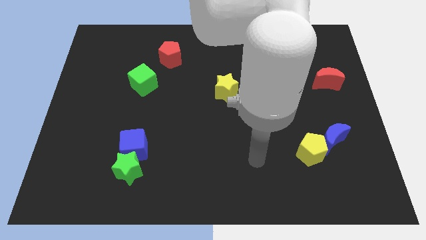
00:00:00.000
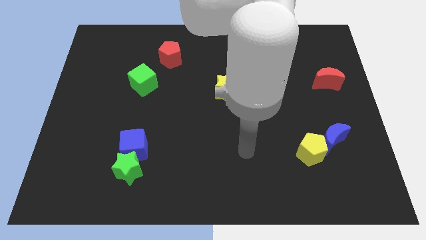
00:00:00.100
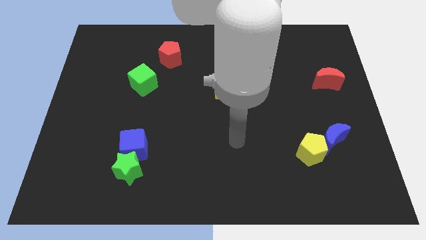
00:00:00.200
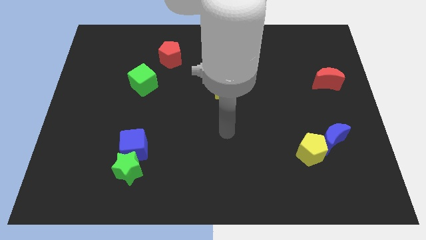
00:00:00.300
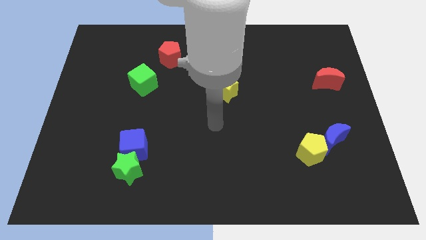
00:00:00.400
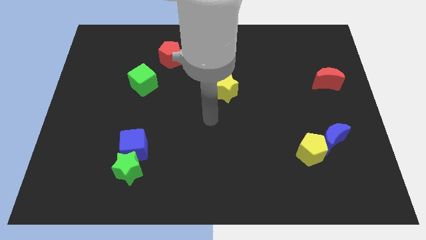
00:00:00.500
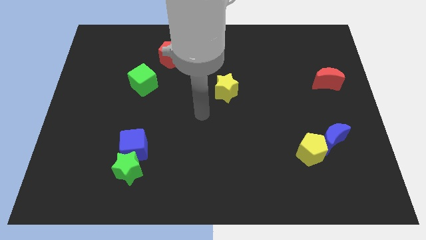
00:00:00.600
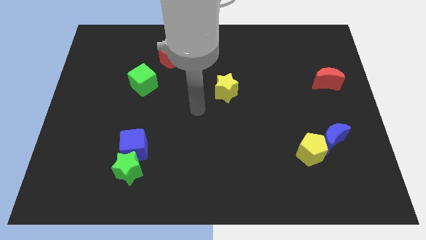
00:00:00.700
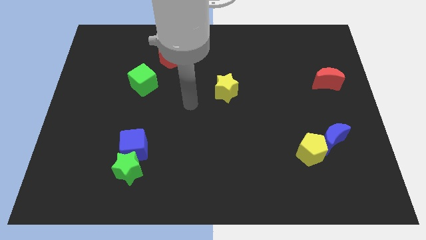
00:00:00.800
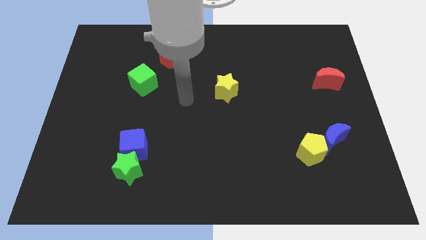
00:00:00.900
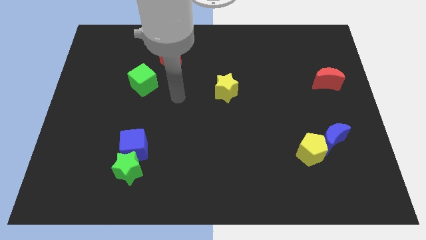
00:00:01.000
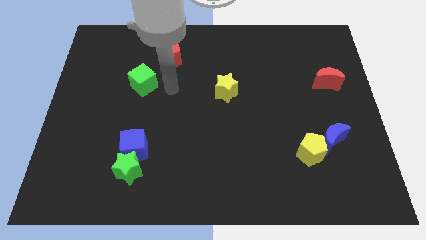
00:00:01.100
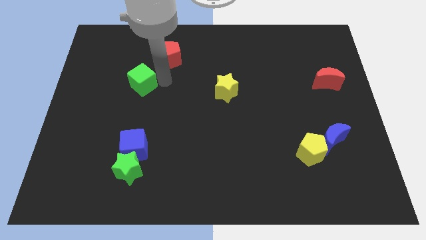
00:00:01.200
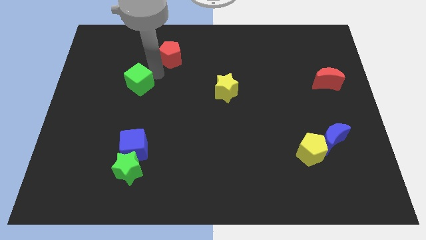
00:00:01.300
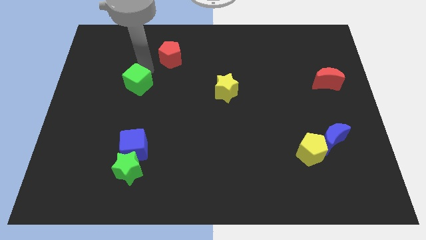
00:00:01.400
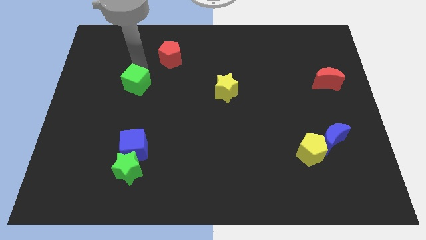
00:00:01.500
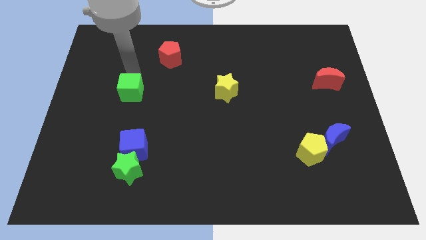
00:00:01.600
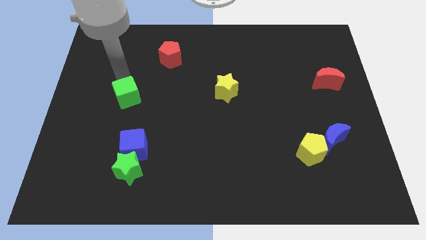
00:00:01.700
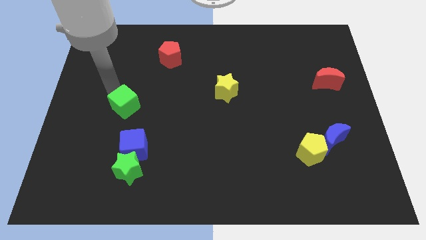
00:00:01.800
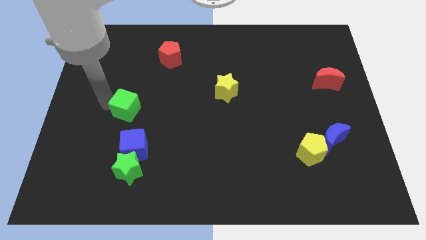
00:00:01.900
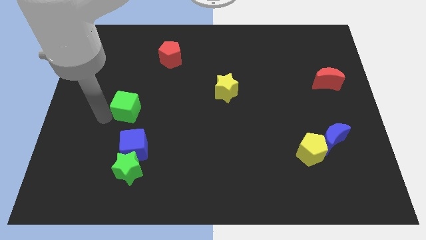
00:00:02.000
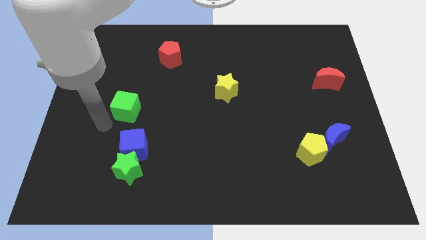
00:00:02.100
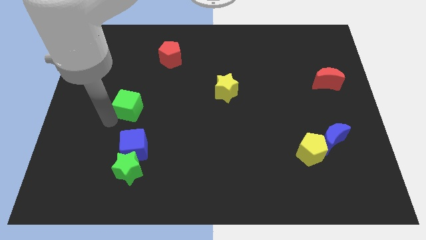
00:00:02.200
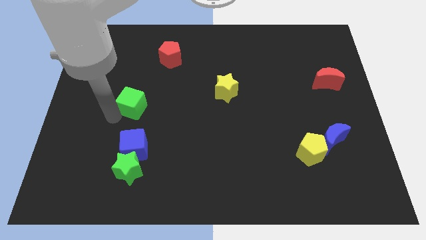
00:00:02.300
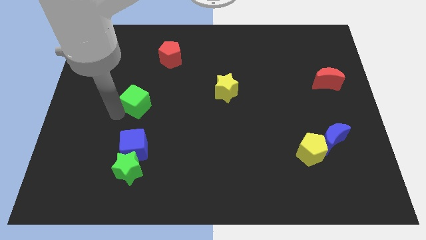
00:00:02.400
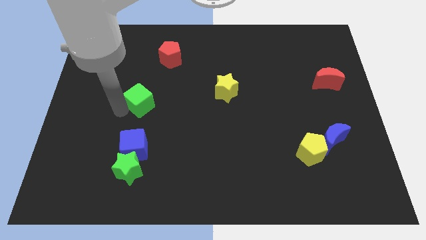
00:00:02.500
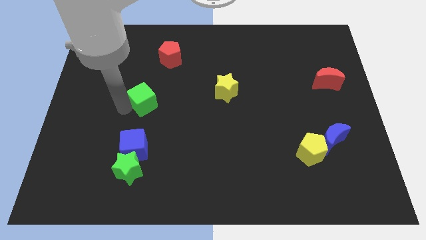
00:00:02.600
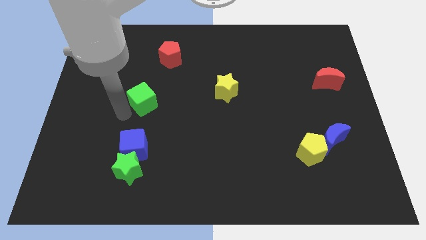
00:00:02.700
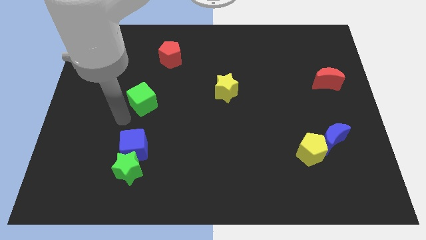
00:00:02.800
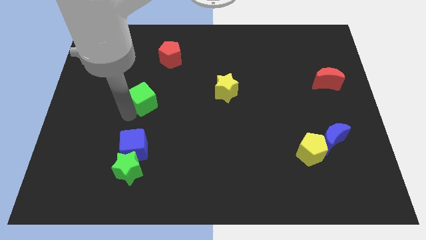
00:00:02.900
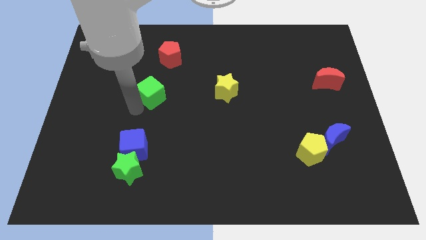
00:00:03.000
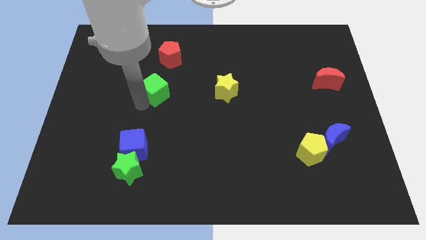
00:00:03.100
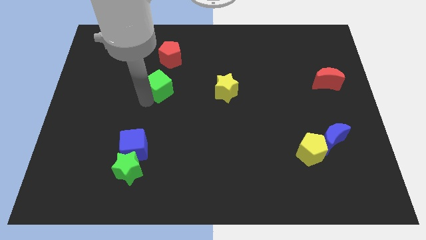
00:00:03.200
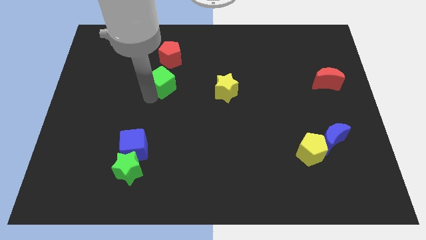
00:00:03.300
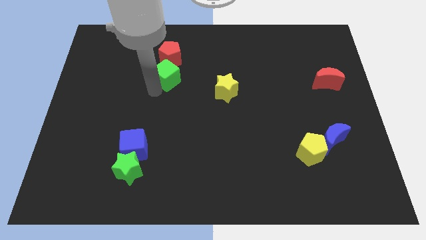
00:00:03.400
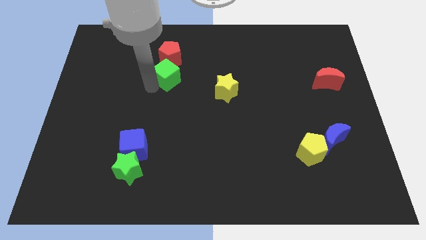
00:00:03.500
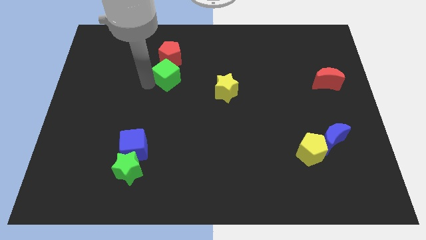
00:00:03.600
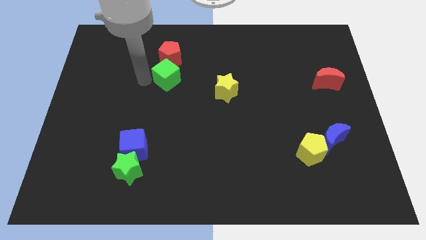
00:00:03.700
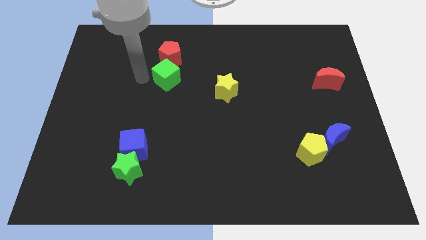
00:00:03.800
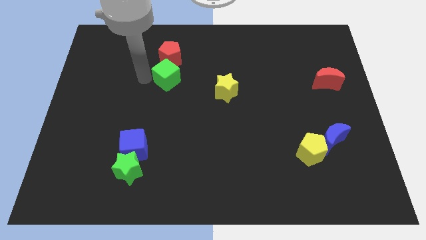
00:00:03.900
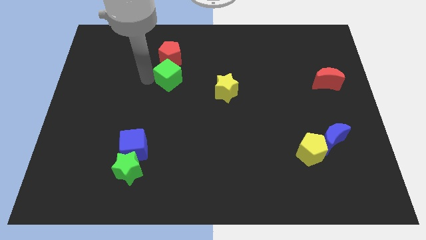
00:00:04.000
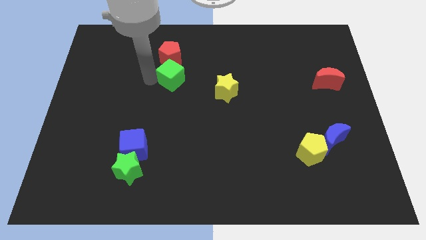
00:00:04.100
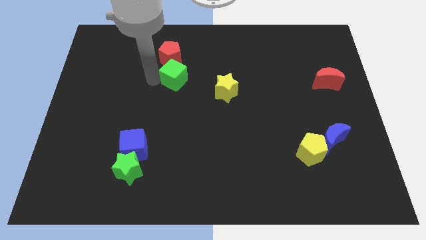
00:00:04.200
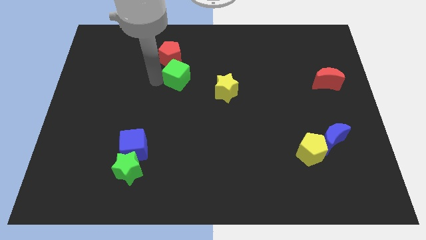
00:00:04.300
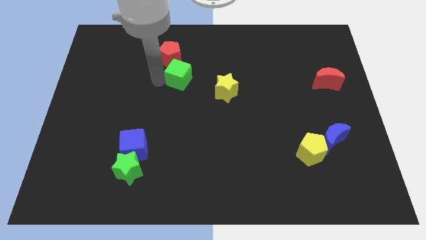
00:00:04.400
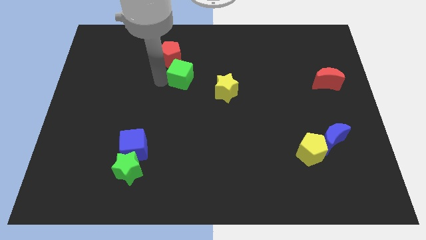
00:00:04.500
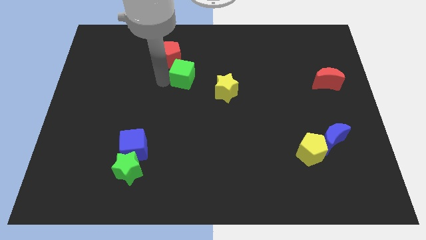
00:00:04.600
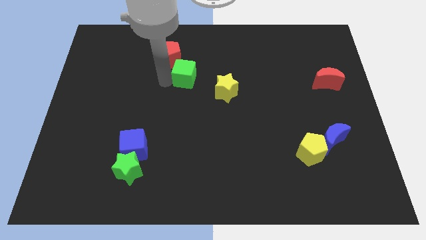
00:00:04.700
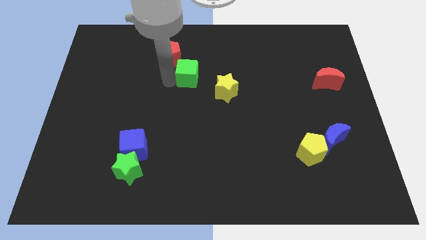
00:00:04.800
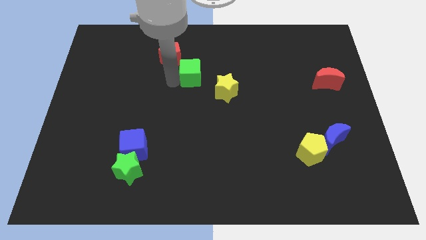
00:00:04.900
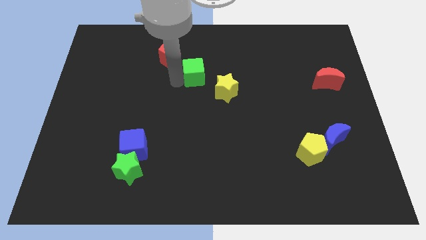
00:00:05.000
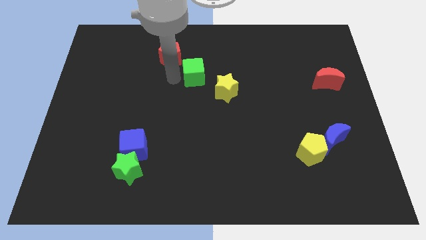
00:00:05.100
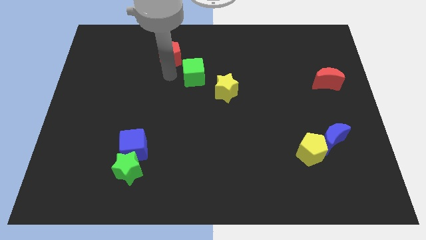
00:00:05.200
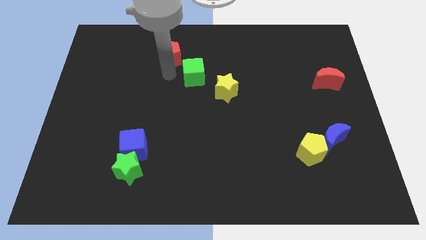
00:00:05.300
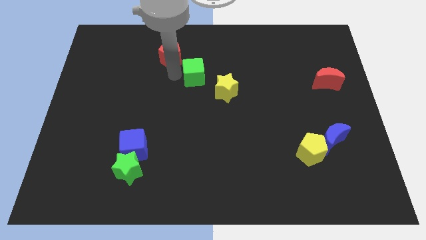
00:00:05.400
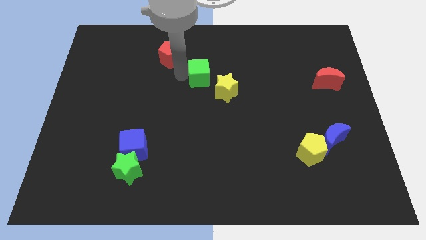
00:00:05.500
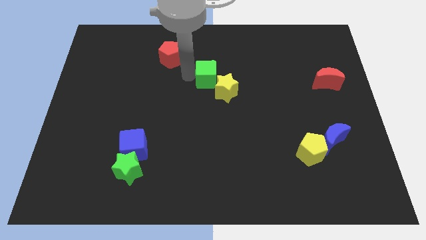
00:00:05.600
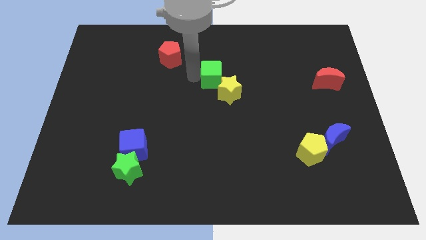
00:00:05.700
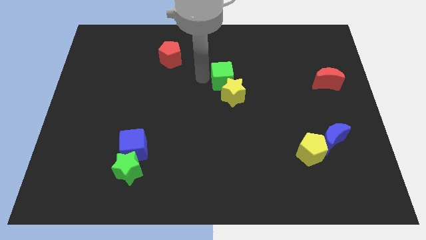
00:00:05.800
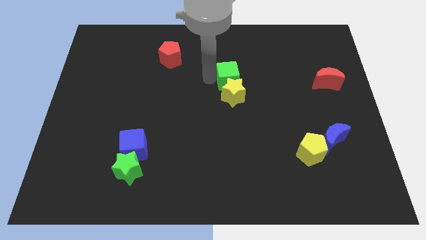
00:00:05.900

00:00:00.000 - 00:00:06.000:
push the green cube to the top right of the yellow star
